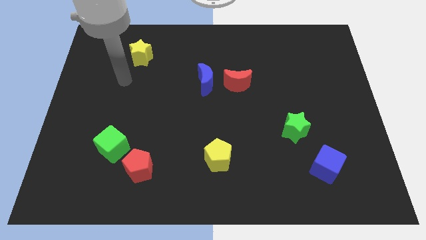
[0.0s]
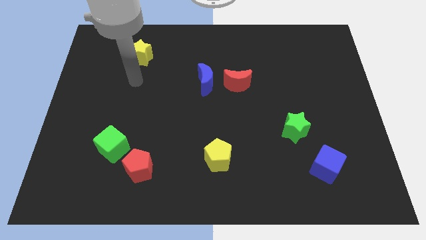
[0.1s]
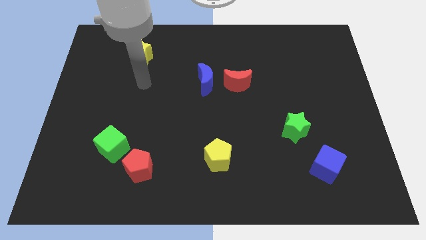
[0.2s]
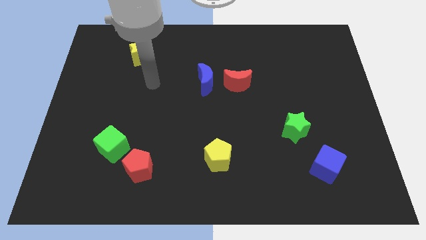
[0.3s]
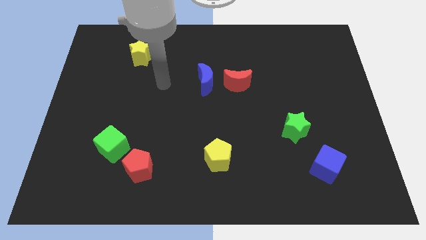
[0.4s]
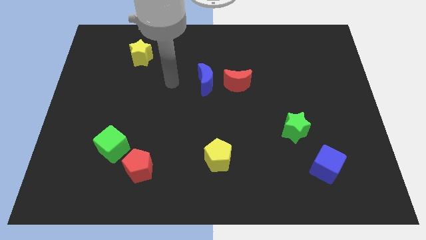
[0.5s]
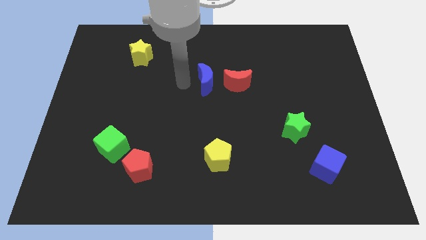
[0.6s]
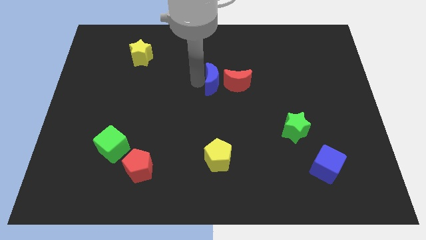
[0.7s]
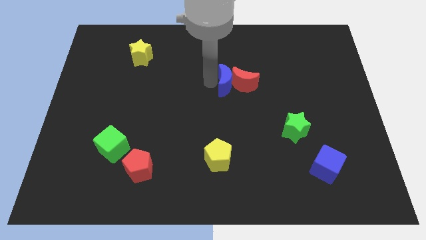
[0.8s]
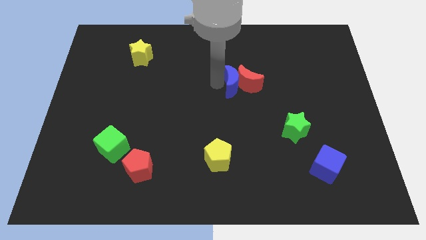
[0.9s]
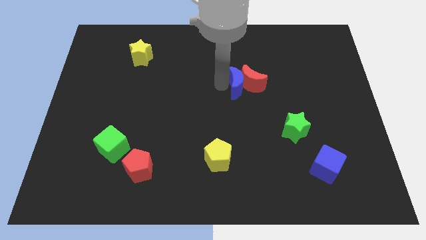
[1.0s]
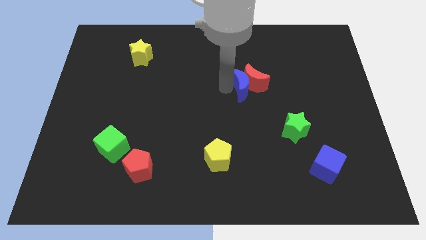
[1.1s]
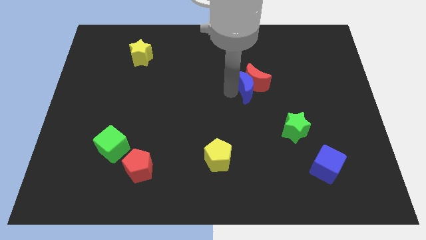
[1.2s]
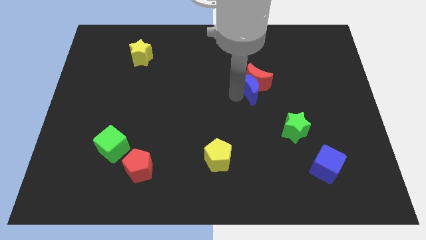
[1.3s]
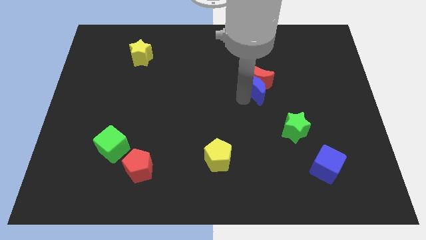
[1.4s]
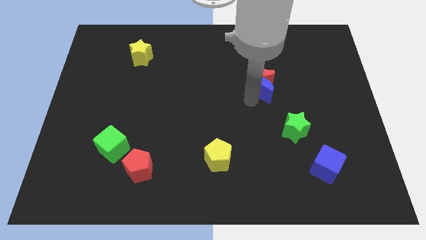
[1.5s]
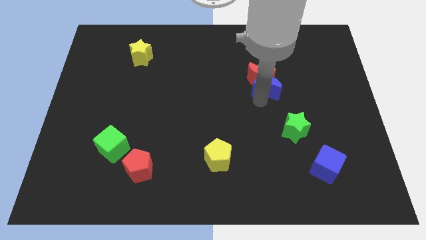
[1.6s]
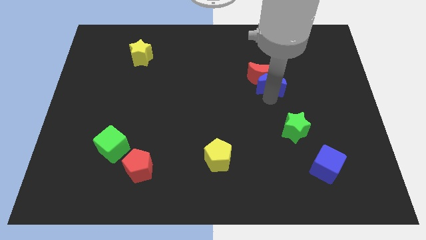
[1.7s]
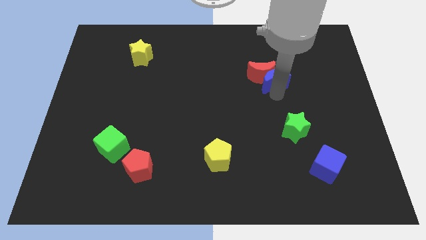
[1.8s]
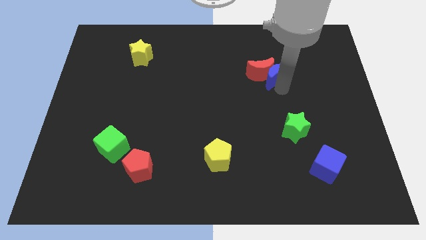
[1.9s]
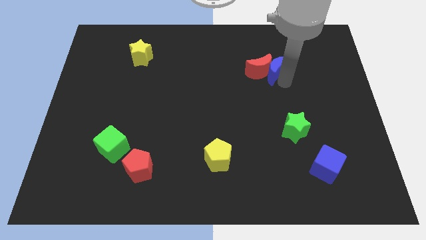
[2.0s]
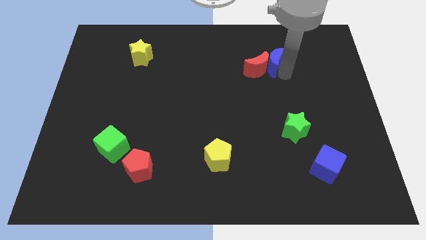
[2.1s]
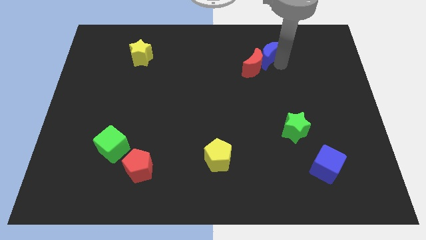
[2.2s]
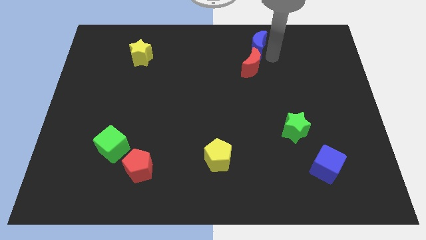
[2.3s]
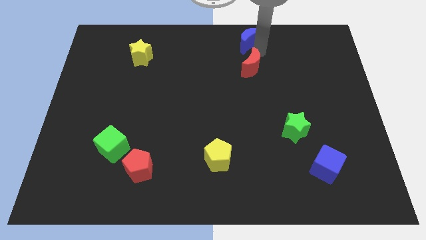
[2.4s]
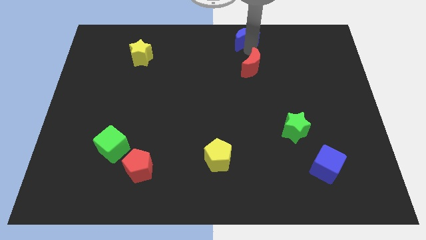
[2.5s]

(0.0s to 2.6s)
separate the red moon from the blue moon

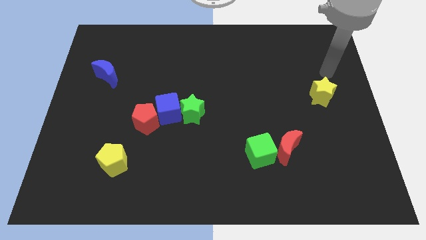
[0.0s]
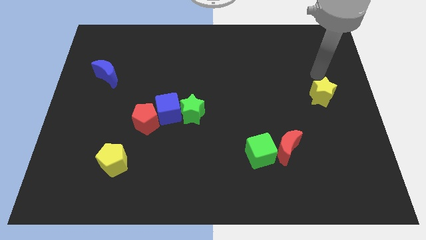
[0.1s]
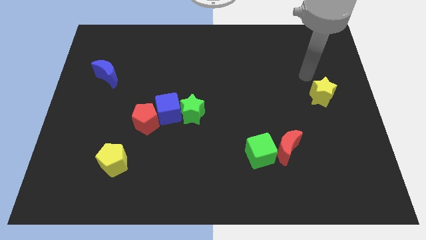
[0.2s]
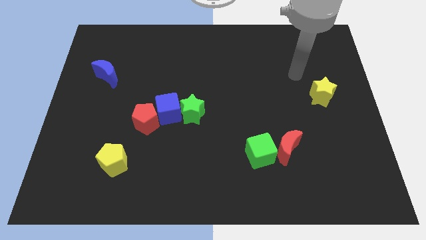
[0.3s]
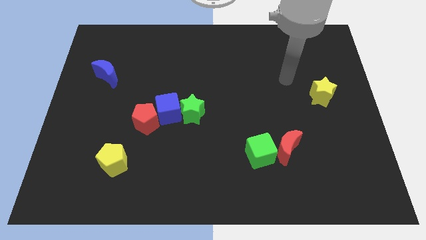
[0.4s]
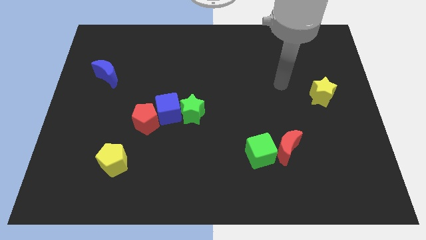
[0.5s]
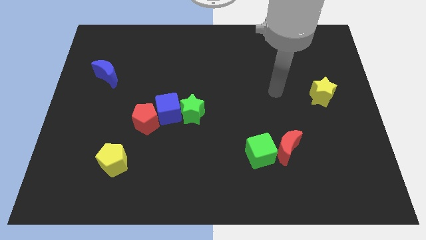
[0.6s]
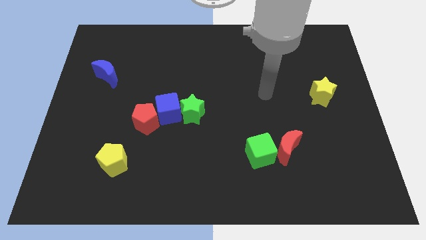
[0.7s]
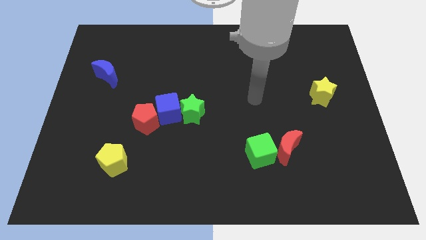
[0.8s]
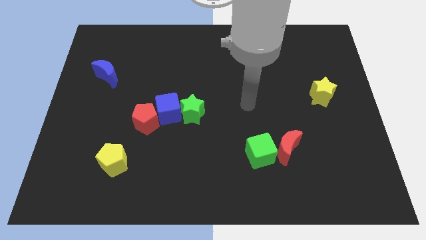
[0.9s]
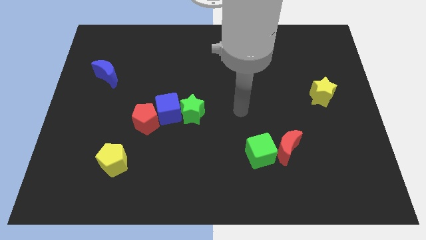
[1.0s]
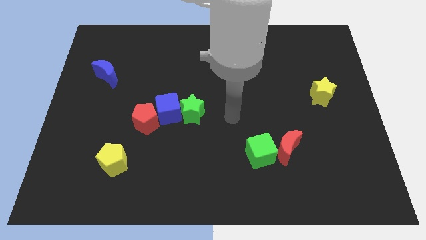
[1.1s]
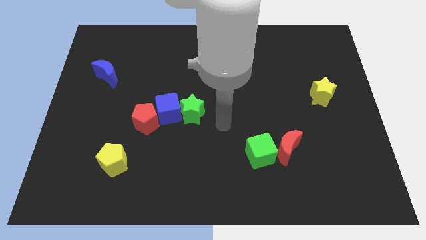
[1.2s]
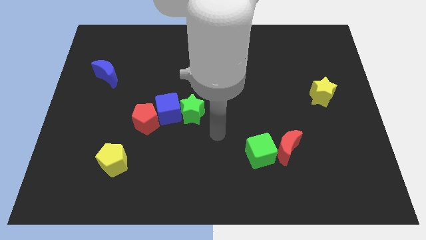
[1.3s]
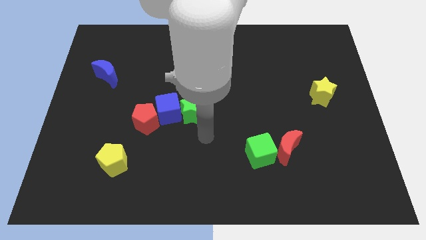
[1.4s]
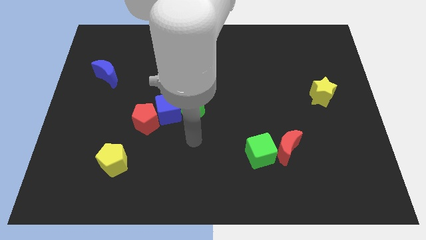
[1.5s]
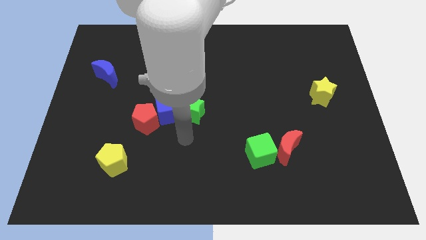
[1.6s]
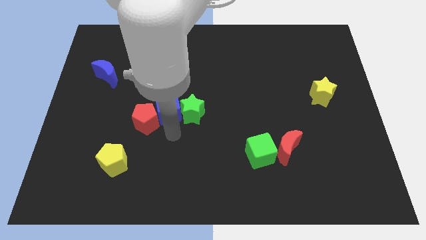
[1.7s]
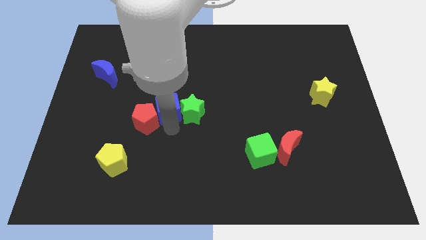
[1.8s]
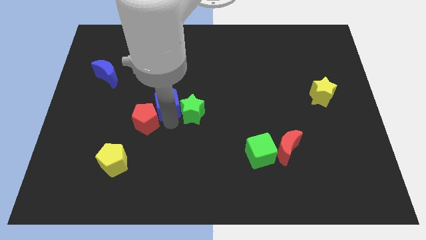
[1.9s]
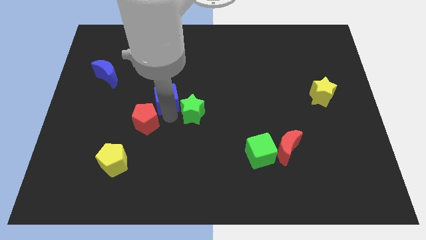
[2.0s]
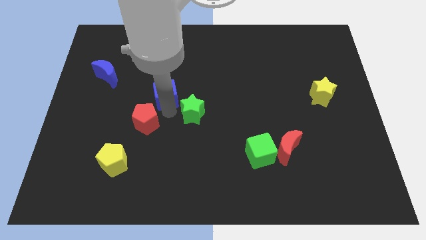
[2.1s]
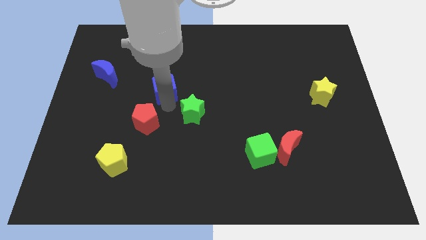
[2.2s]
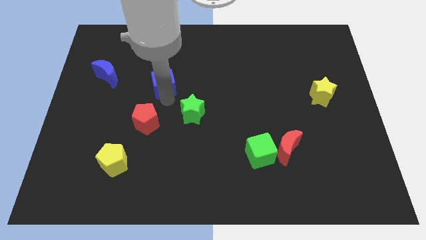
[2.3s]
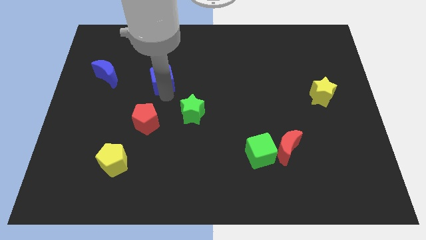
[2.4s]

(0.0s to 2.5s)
separate the blue cube from the green star and red pentagon

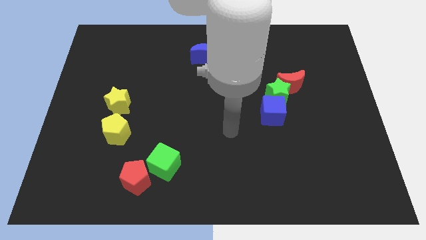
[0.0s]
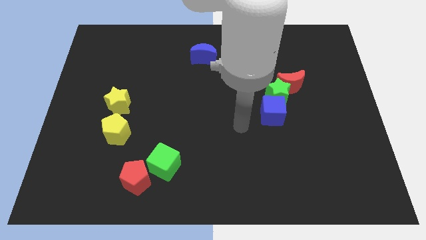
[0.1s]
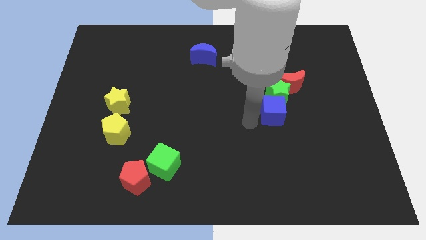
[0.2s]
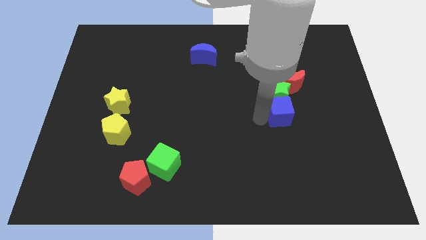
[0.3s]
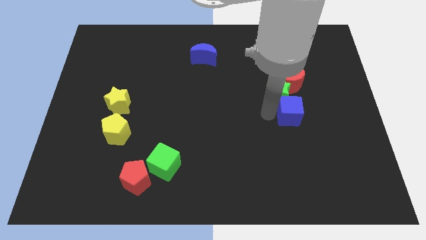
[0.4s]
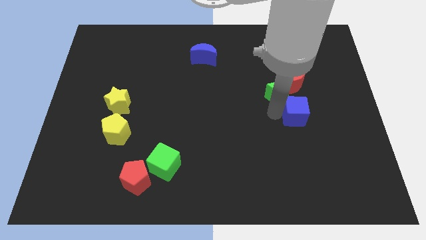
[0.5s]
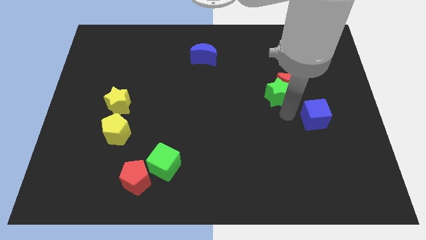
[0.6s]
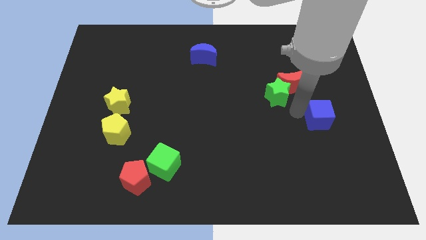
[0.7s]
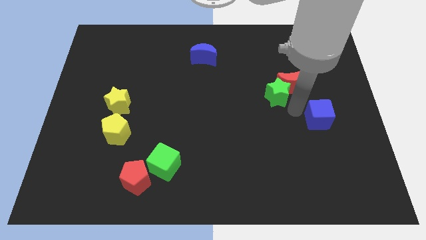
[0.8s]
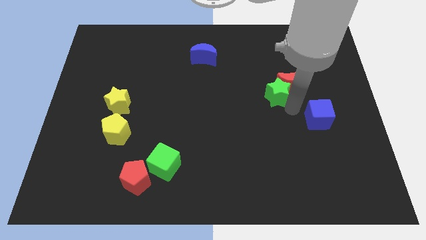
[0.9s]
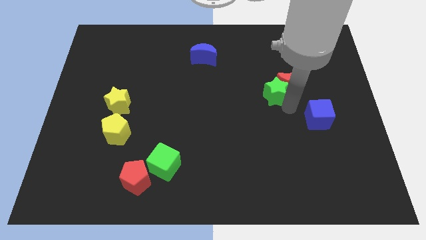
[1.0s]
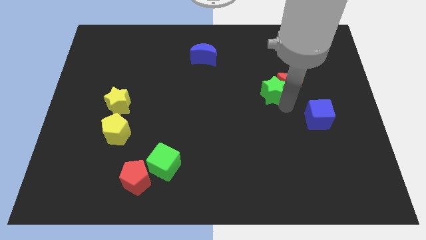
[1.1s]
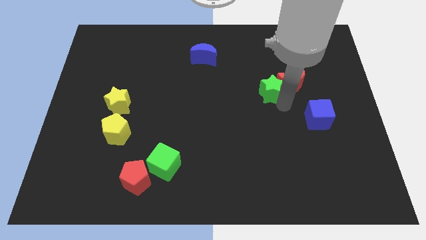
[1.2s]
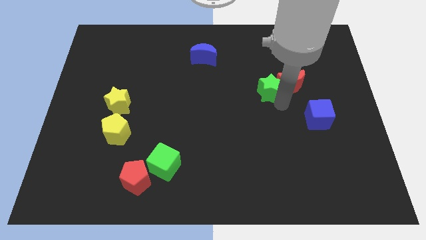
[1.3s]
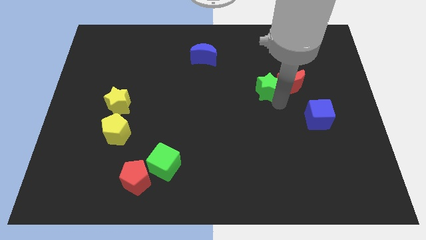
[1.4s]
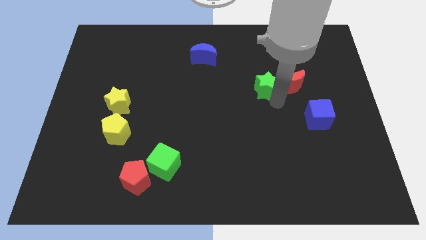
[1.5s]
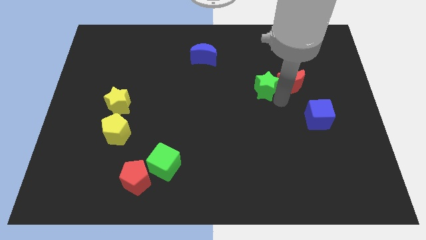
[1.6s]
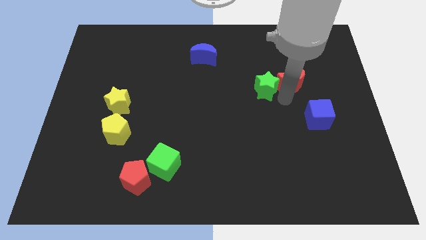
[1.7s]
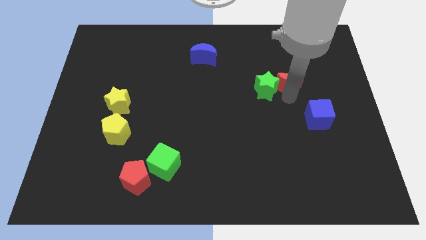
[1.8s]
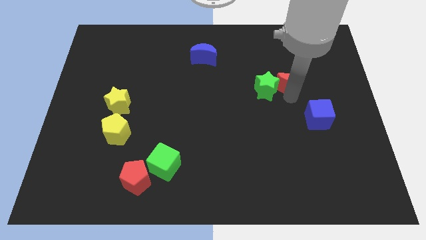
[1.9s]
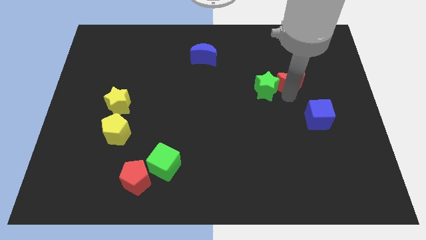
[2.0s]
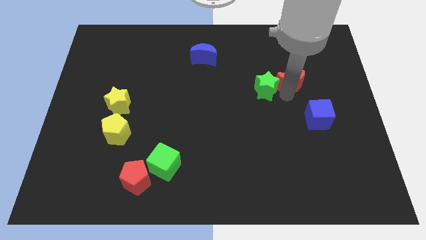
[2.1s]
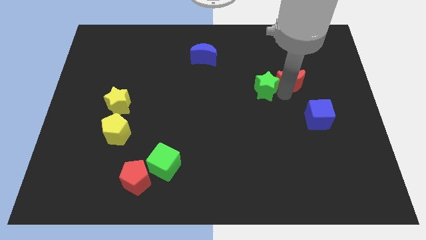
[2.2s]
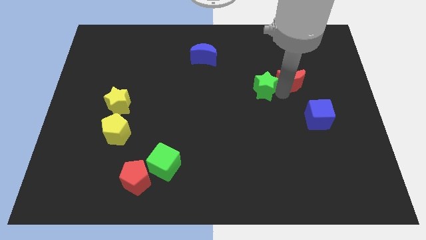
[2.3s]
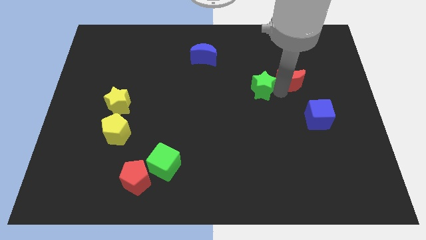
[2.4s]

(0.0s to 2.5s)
pull the green star apart from the red moon and blue cube

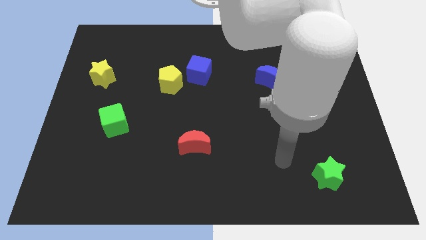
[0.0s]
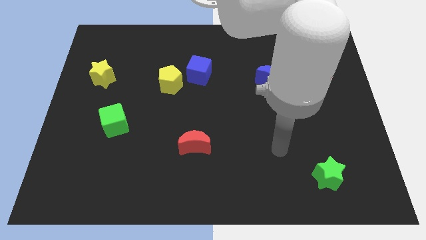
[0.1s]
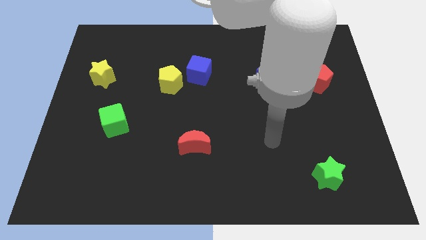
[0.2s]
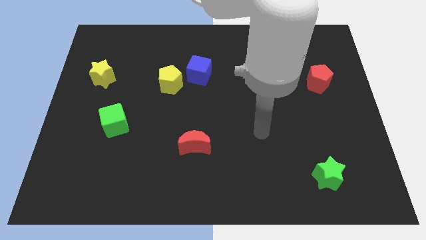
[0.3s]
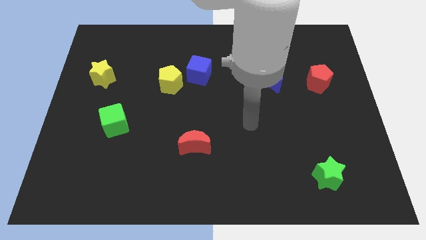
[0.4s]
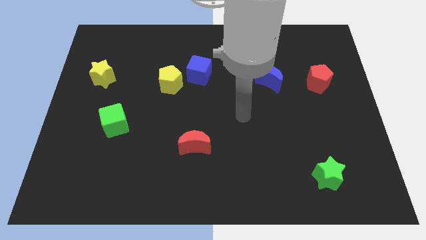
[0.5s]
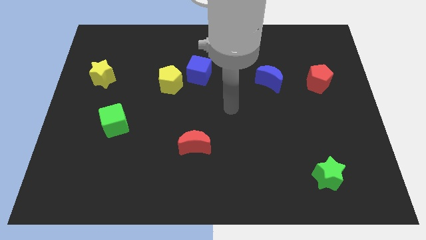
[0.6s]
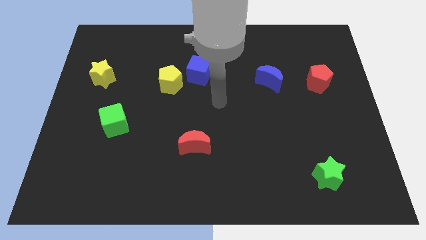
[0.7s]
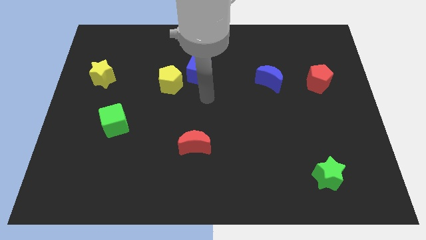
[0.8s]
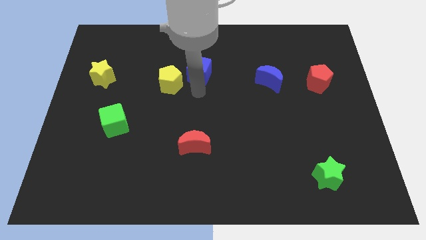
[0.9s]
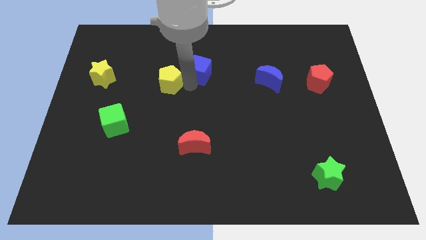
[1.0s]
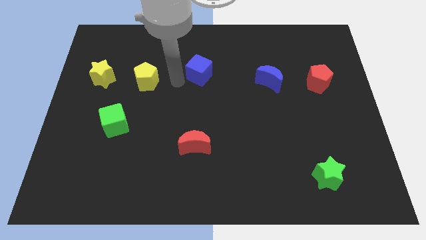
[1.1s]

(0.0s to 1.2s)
separate the blue cube from the yellow pentagon

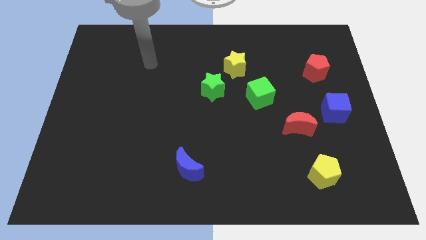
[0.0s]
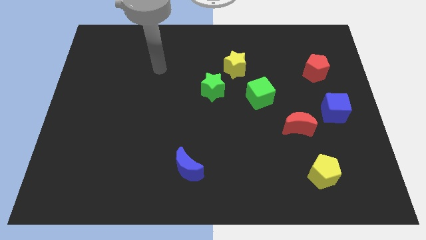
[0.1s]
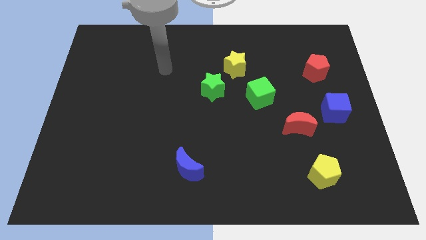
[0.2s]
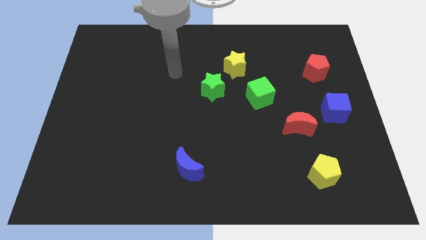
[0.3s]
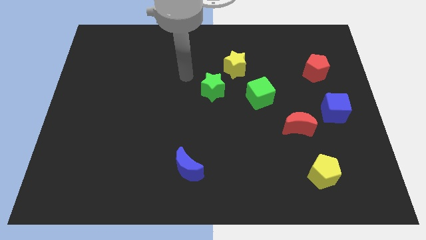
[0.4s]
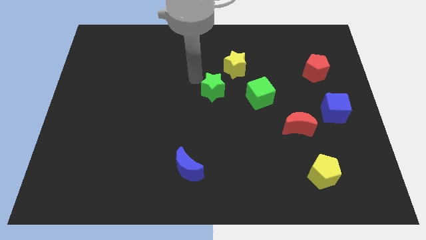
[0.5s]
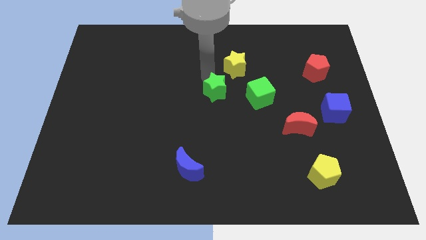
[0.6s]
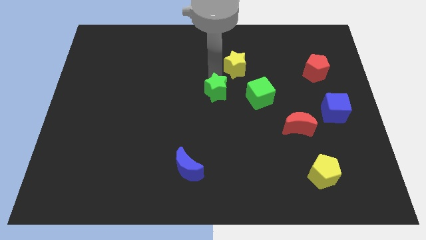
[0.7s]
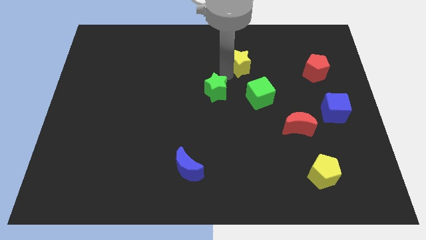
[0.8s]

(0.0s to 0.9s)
separate the green star from the yellow star
